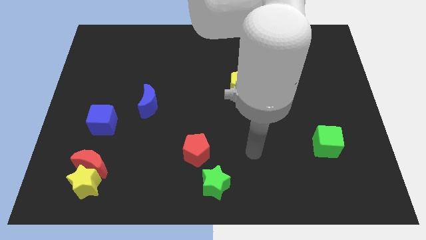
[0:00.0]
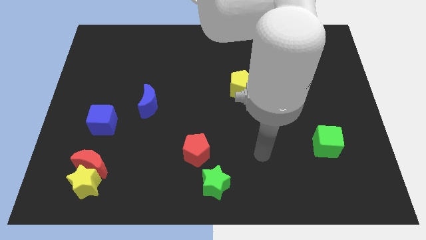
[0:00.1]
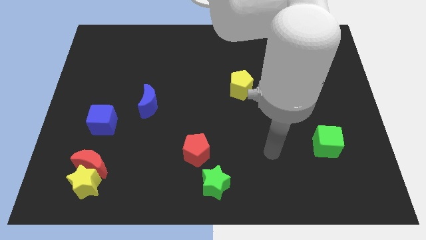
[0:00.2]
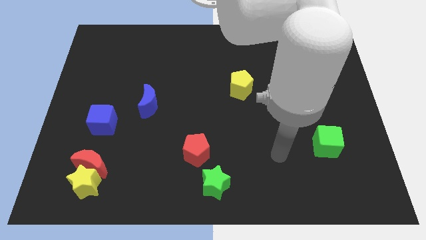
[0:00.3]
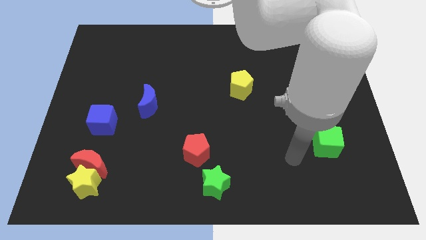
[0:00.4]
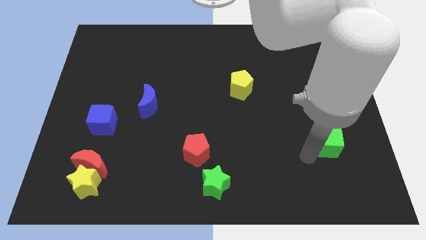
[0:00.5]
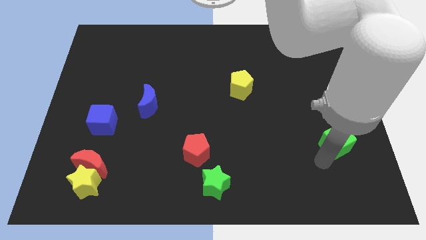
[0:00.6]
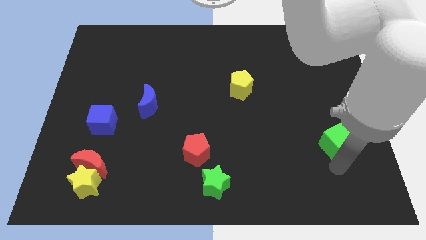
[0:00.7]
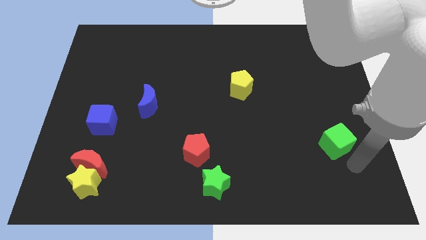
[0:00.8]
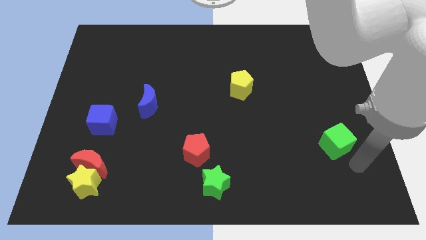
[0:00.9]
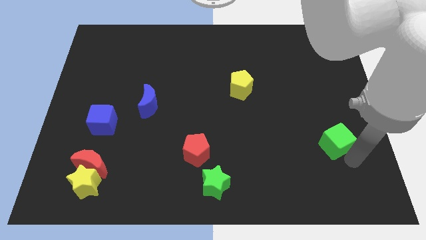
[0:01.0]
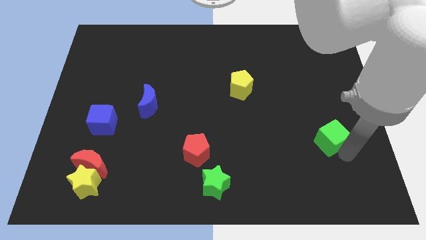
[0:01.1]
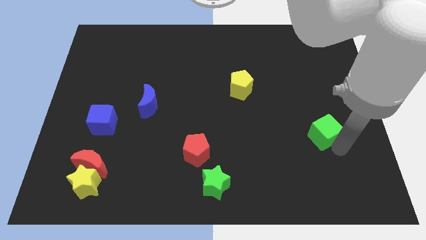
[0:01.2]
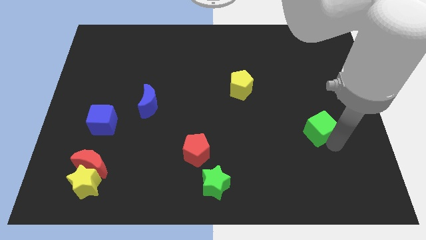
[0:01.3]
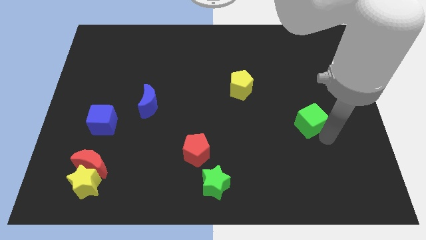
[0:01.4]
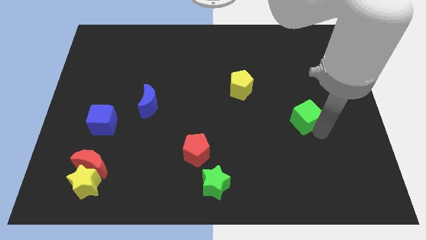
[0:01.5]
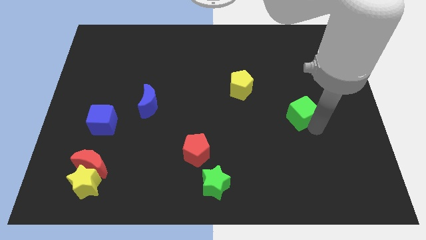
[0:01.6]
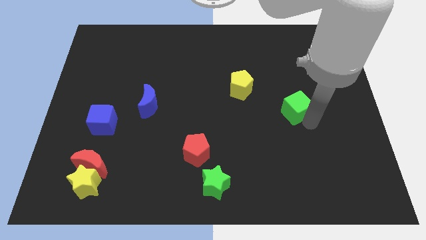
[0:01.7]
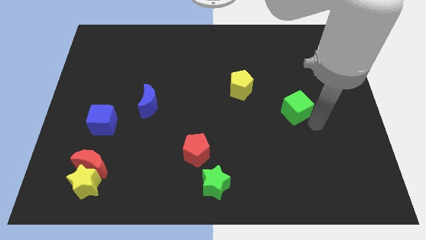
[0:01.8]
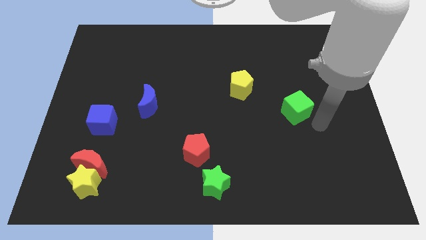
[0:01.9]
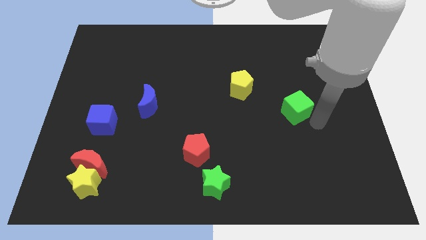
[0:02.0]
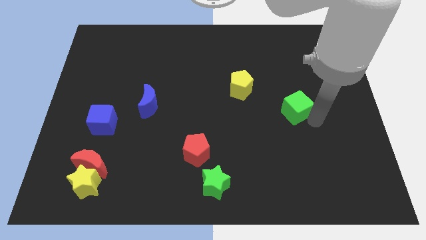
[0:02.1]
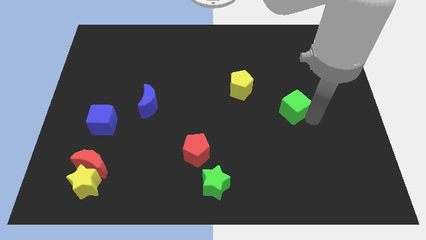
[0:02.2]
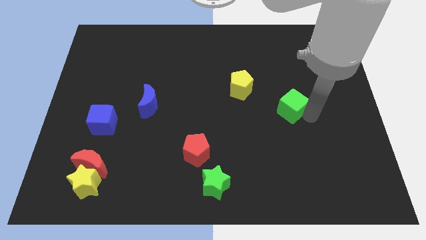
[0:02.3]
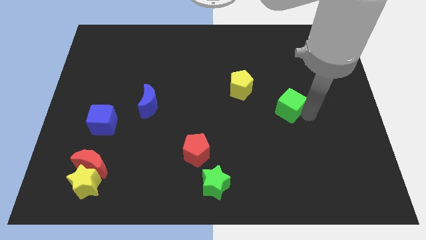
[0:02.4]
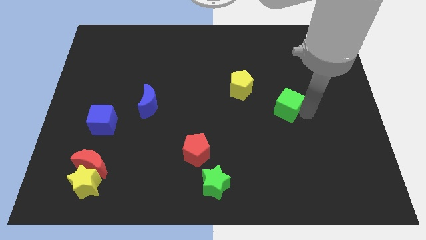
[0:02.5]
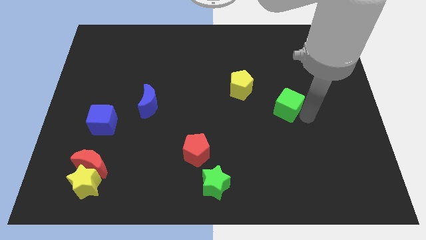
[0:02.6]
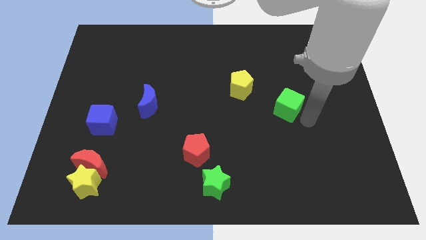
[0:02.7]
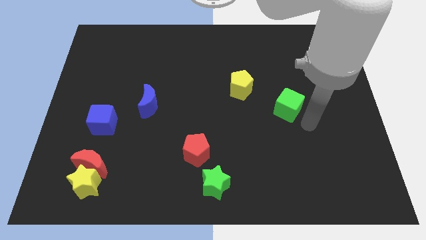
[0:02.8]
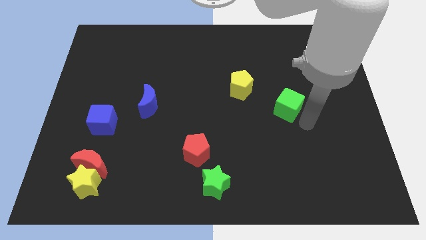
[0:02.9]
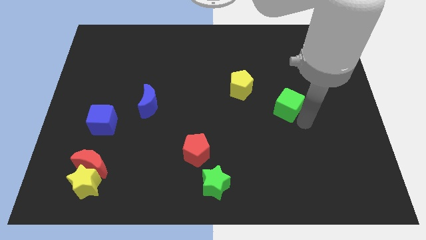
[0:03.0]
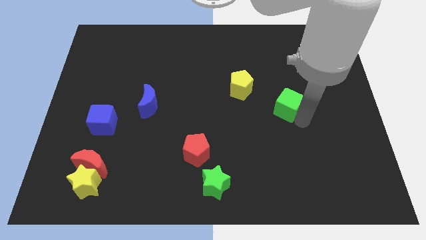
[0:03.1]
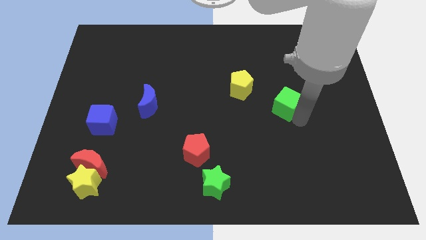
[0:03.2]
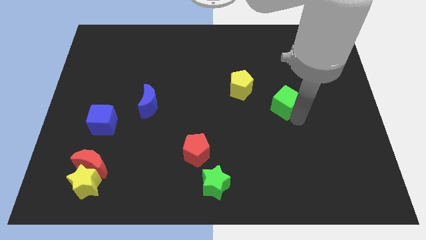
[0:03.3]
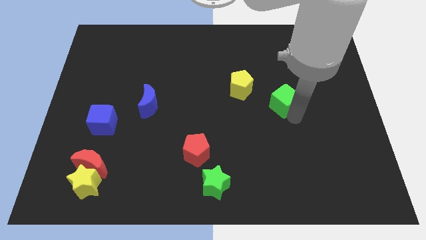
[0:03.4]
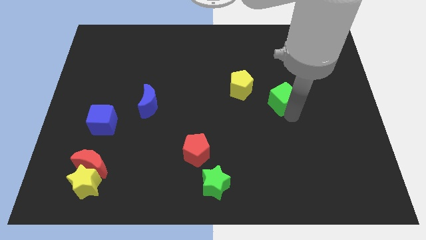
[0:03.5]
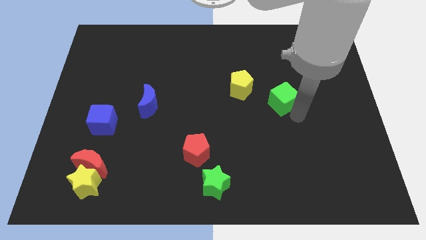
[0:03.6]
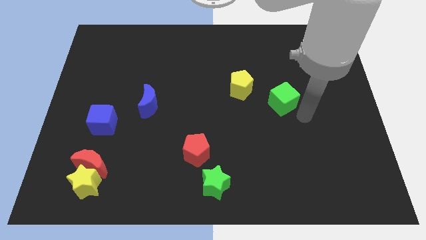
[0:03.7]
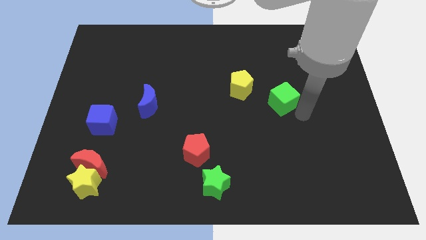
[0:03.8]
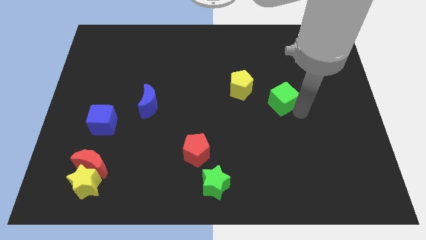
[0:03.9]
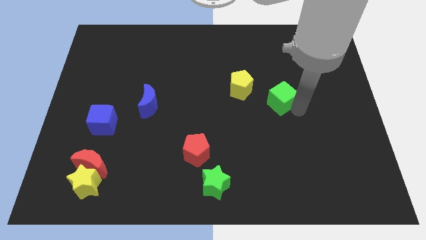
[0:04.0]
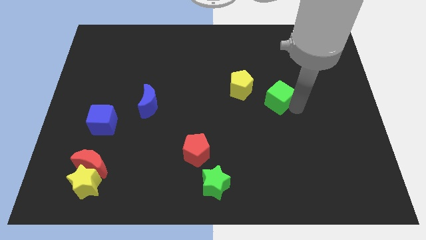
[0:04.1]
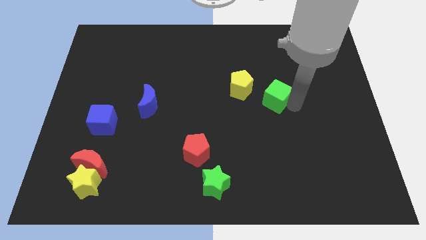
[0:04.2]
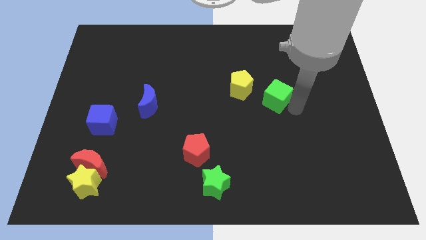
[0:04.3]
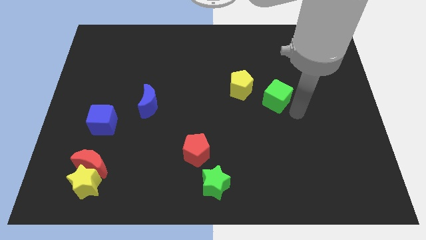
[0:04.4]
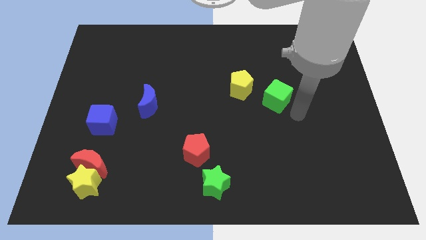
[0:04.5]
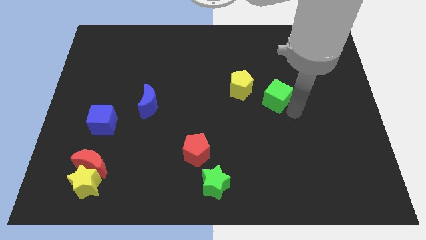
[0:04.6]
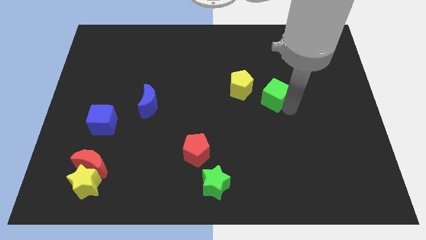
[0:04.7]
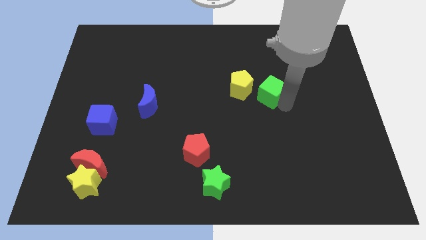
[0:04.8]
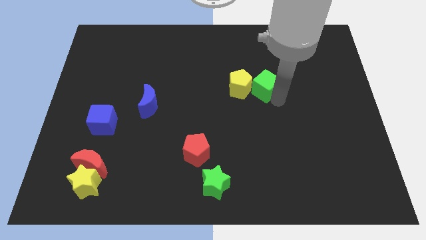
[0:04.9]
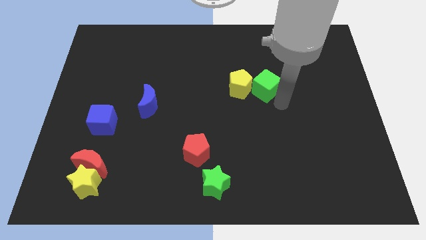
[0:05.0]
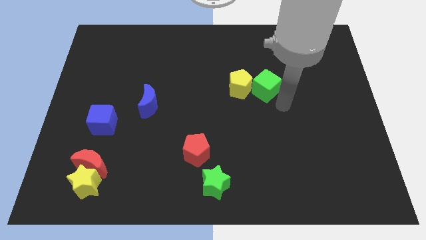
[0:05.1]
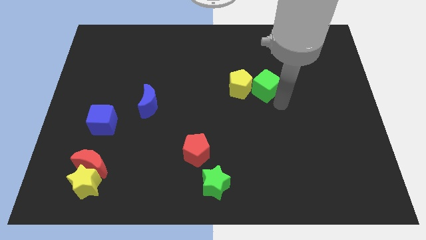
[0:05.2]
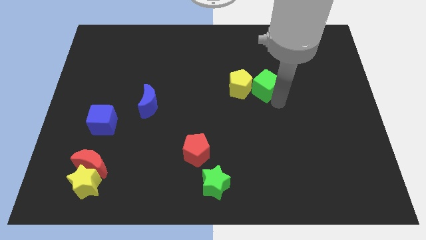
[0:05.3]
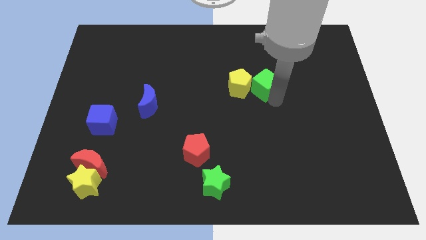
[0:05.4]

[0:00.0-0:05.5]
move the green cube upwards and left diagonally

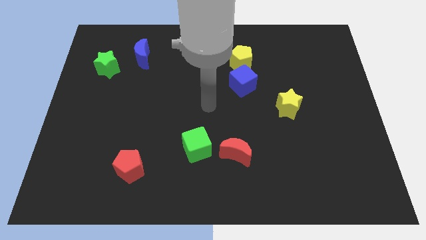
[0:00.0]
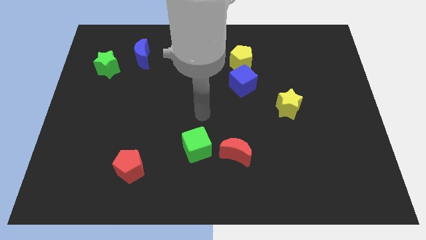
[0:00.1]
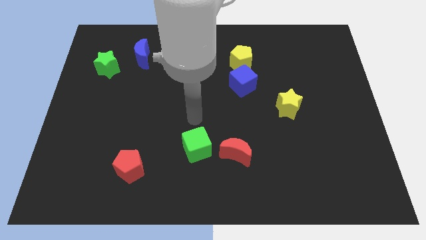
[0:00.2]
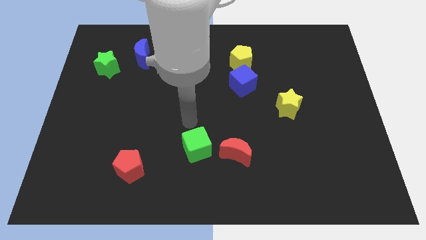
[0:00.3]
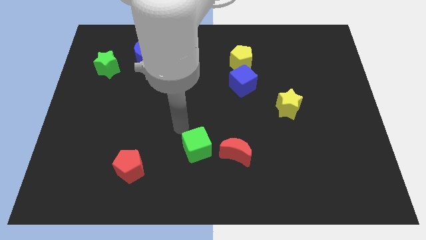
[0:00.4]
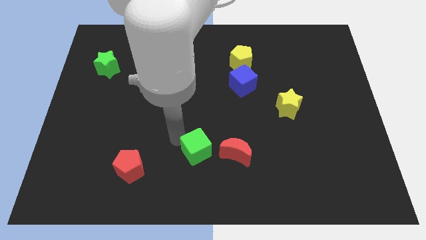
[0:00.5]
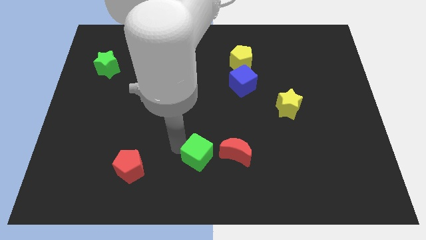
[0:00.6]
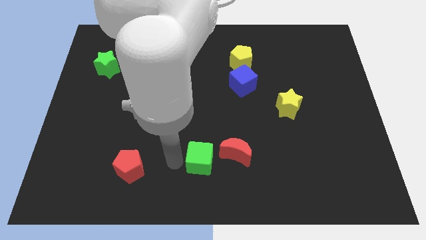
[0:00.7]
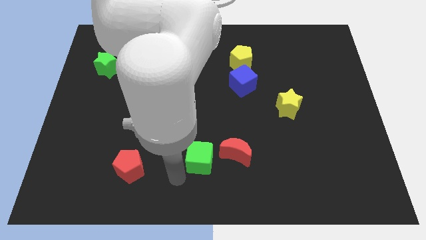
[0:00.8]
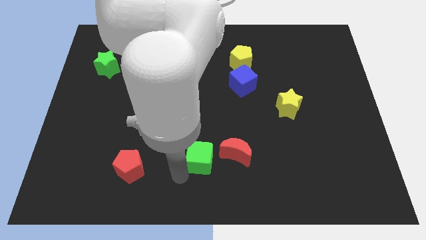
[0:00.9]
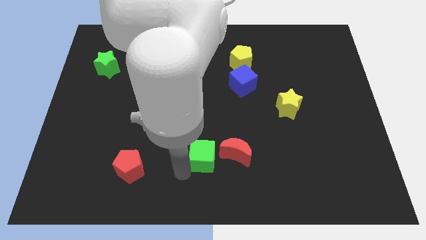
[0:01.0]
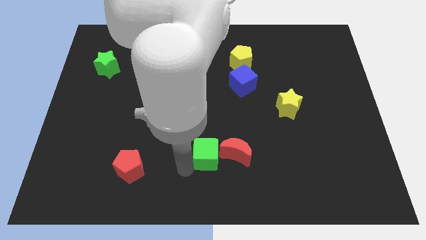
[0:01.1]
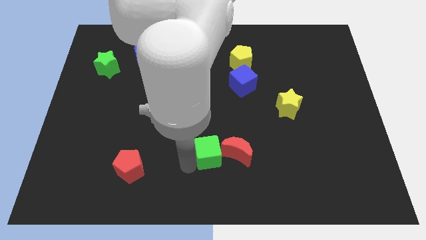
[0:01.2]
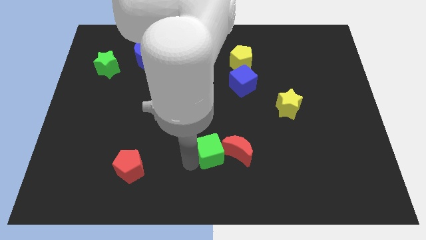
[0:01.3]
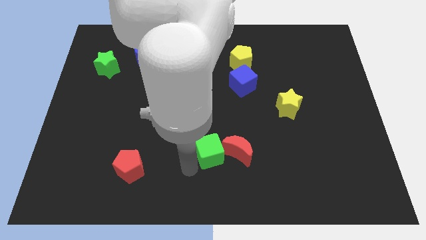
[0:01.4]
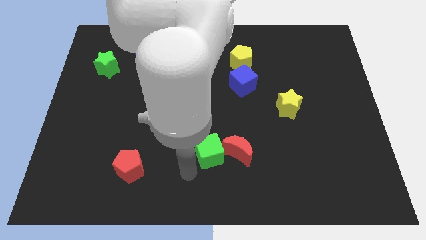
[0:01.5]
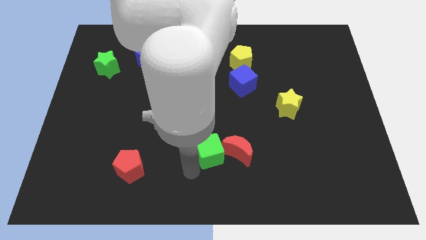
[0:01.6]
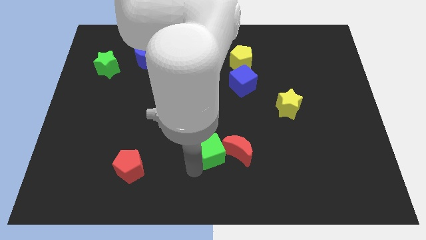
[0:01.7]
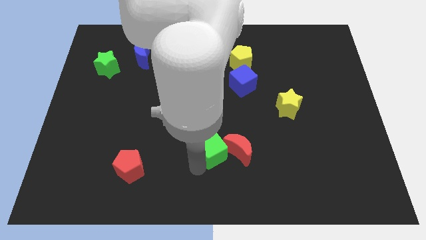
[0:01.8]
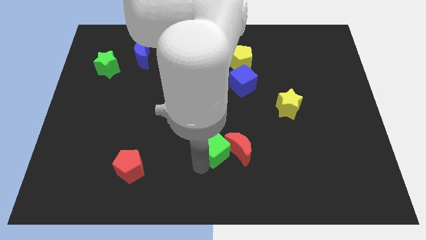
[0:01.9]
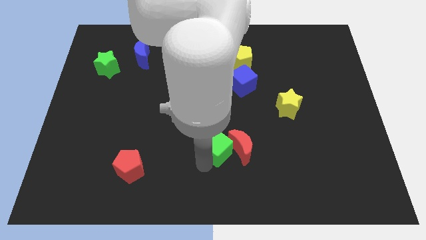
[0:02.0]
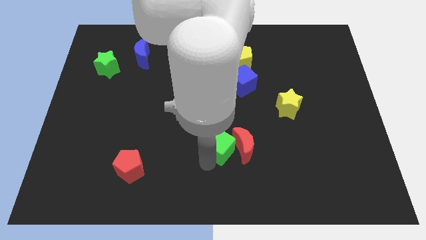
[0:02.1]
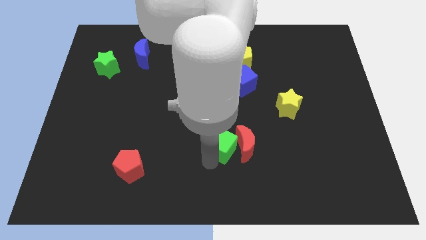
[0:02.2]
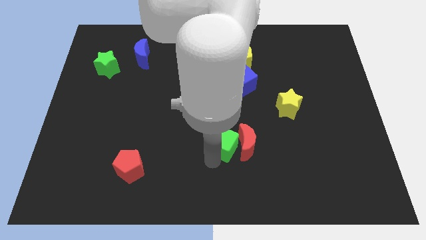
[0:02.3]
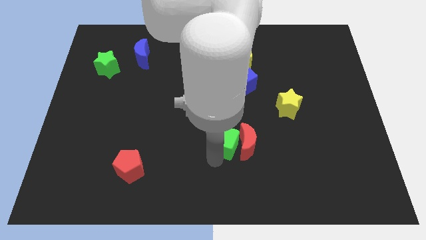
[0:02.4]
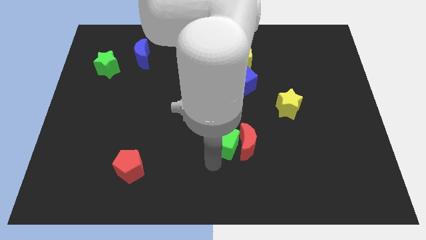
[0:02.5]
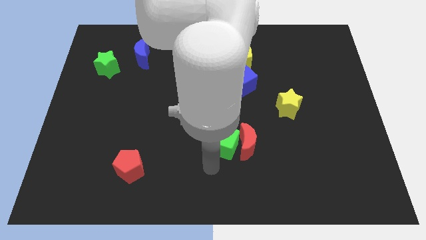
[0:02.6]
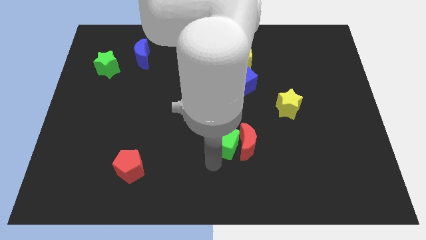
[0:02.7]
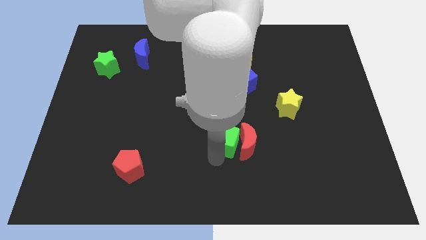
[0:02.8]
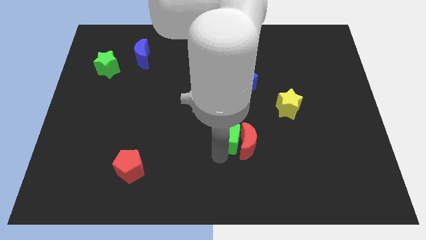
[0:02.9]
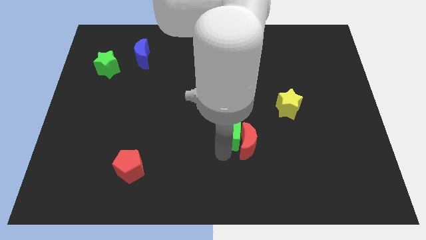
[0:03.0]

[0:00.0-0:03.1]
push the green cube right a bit
